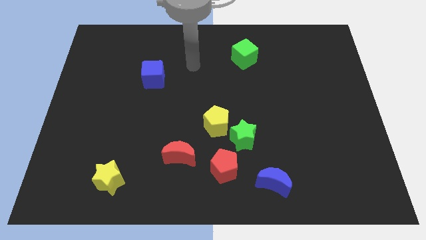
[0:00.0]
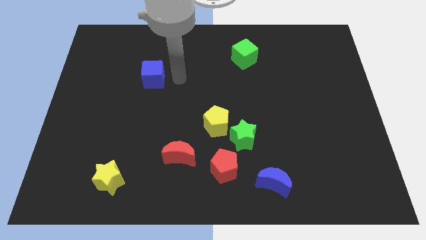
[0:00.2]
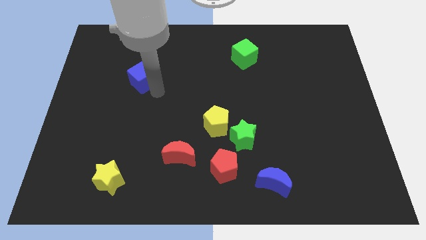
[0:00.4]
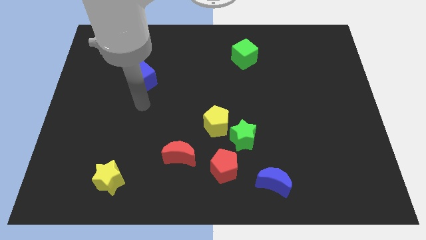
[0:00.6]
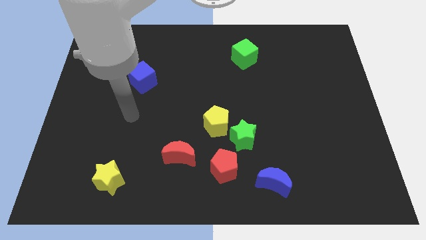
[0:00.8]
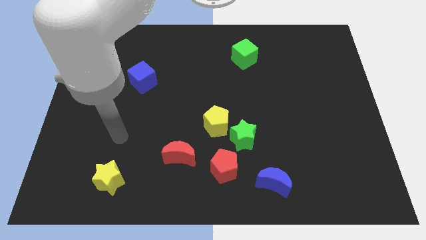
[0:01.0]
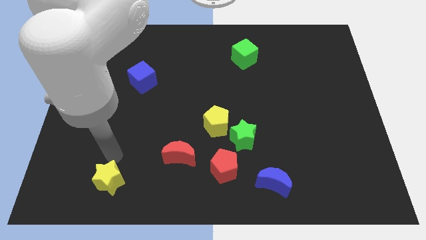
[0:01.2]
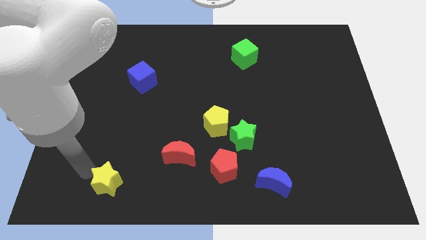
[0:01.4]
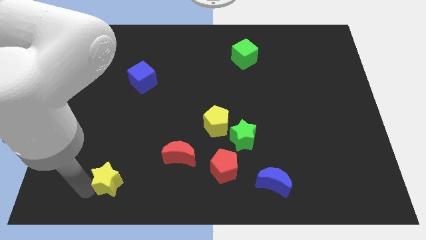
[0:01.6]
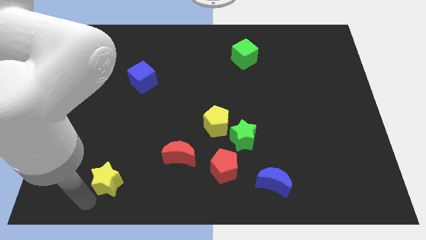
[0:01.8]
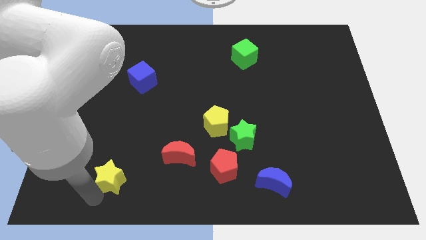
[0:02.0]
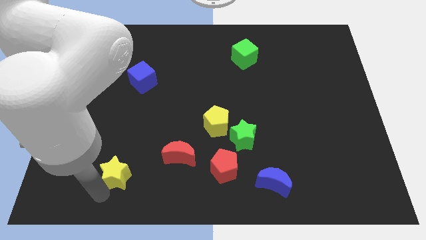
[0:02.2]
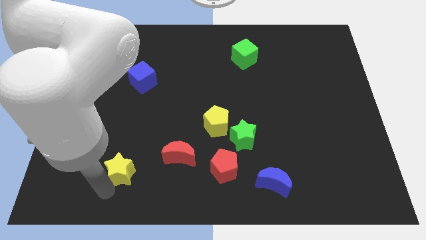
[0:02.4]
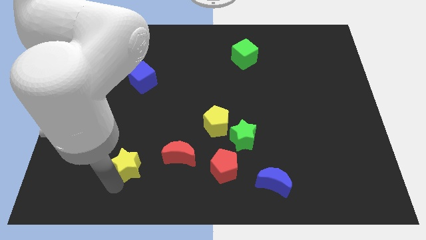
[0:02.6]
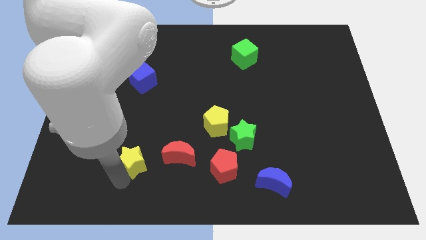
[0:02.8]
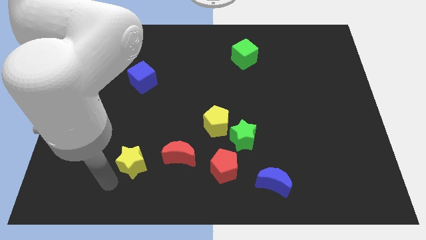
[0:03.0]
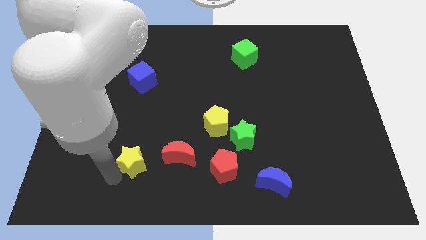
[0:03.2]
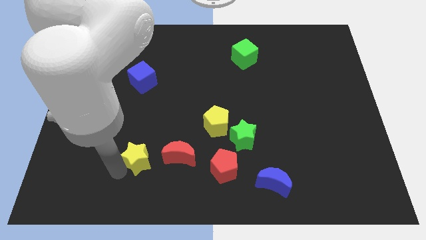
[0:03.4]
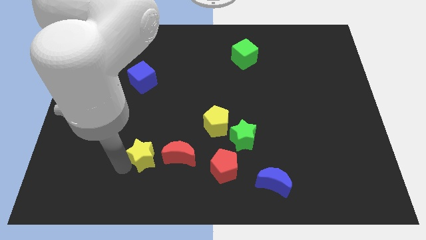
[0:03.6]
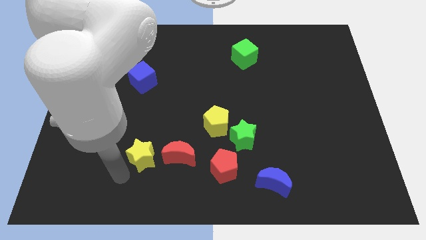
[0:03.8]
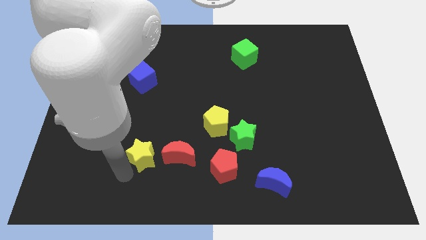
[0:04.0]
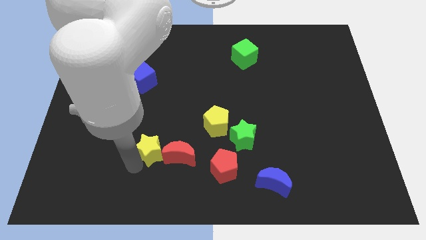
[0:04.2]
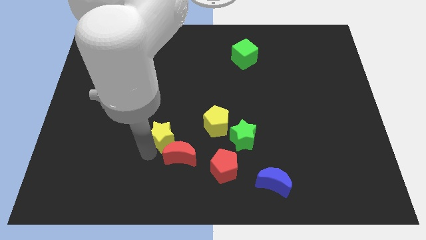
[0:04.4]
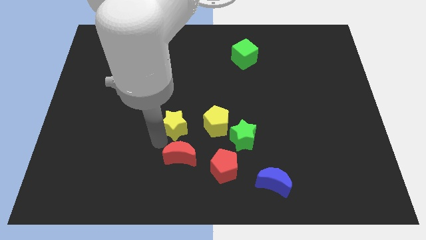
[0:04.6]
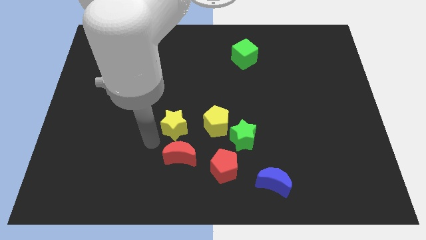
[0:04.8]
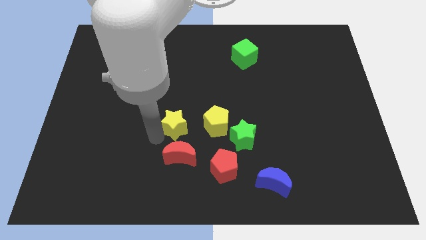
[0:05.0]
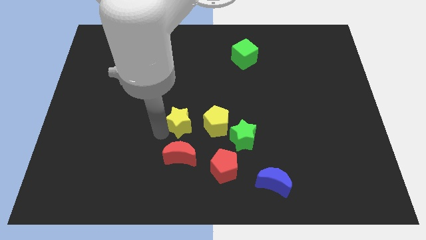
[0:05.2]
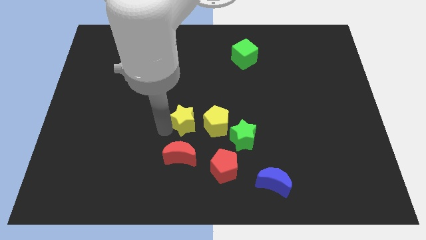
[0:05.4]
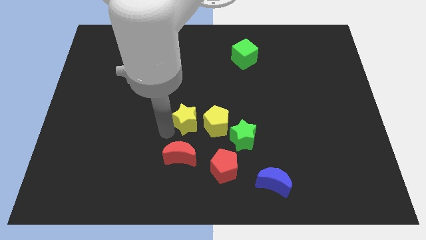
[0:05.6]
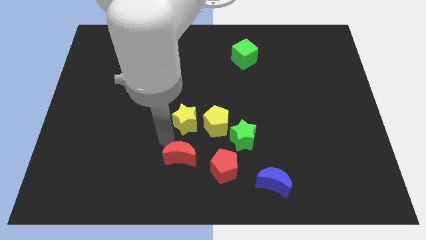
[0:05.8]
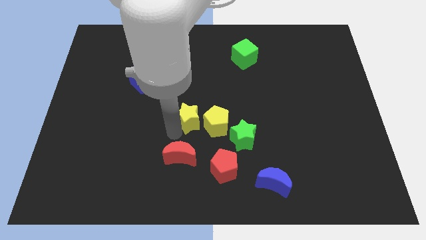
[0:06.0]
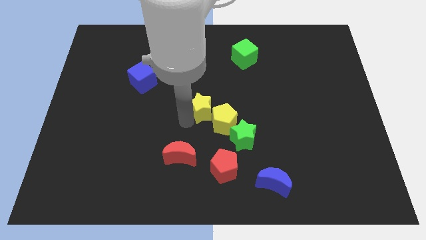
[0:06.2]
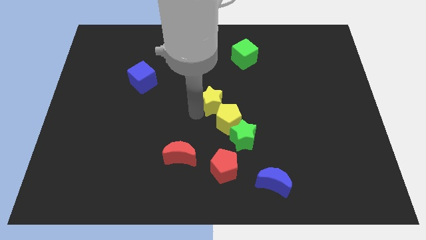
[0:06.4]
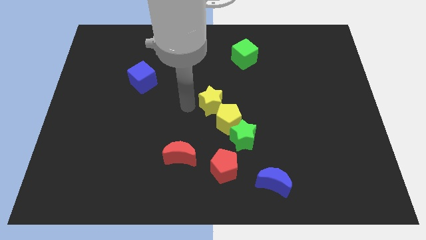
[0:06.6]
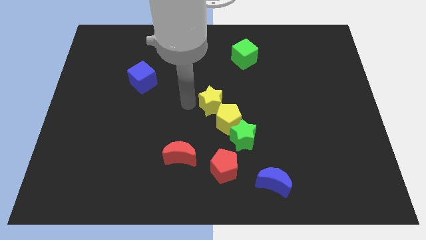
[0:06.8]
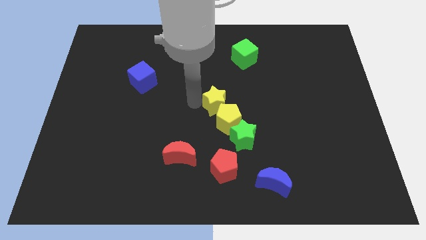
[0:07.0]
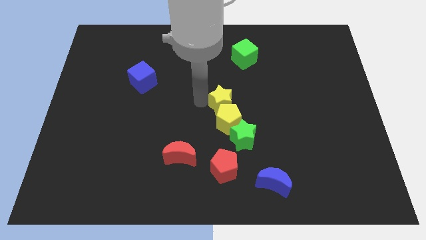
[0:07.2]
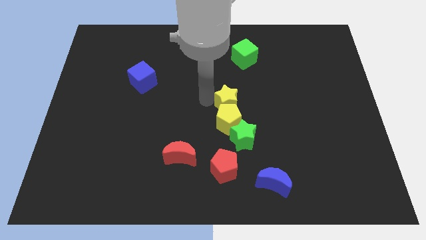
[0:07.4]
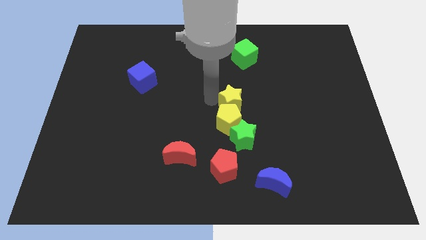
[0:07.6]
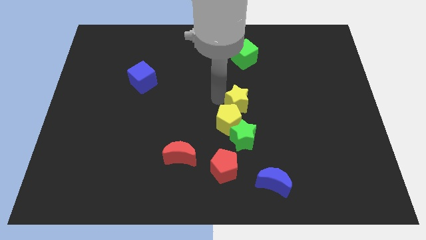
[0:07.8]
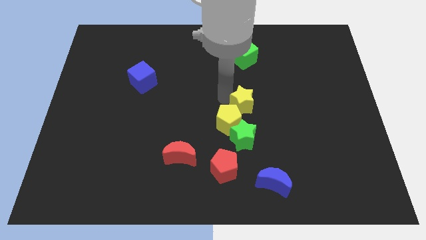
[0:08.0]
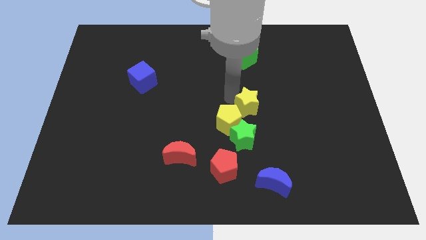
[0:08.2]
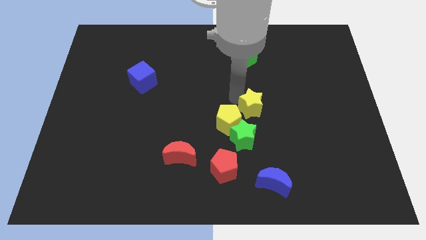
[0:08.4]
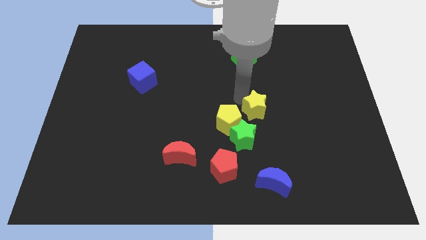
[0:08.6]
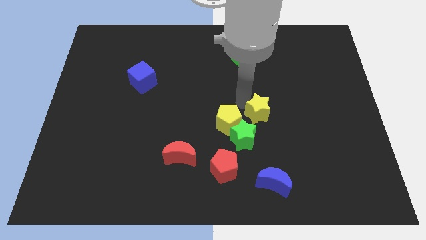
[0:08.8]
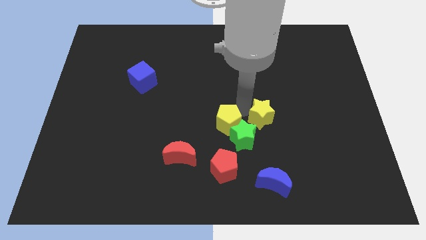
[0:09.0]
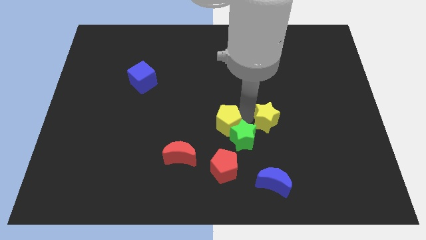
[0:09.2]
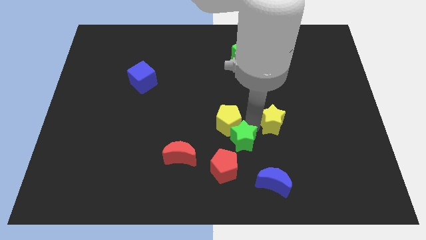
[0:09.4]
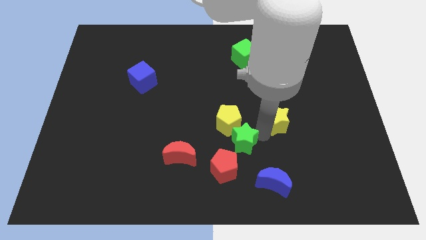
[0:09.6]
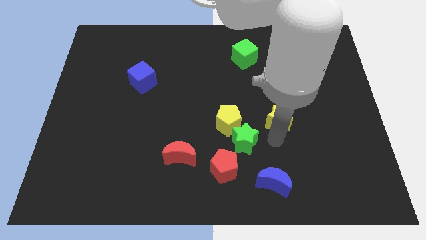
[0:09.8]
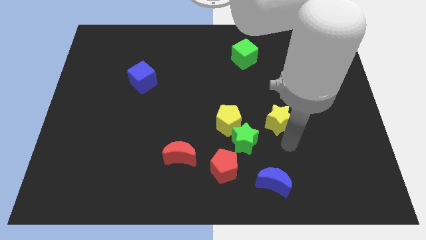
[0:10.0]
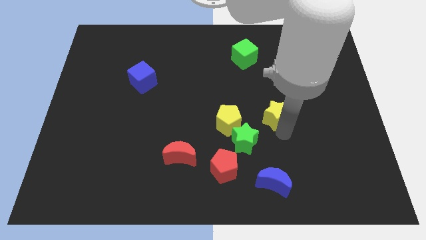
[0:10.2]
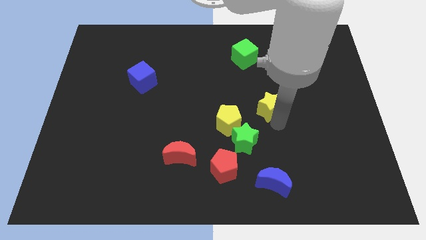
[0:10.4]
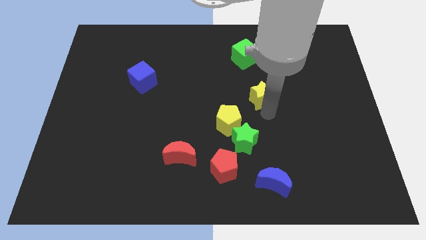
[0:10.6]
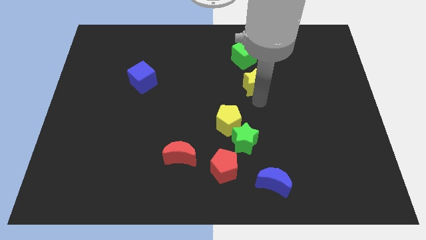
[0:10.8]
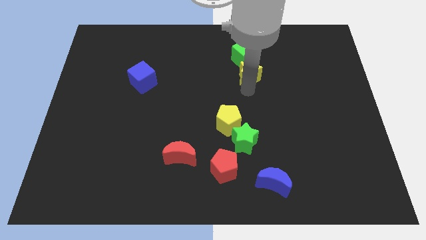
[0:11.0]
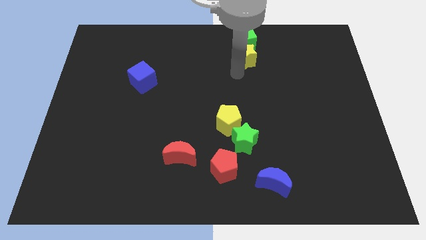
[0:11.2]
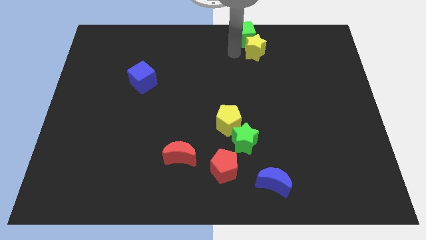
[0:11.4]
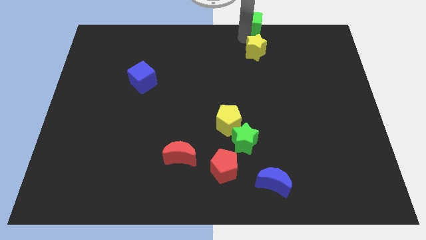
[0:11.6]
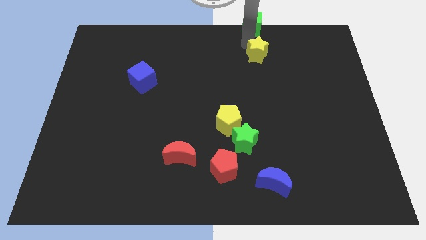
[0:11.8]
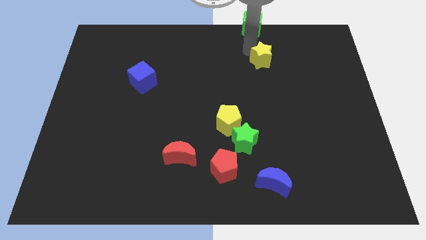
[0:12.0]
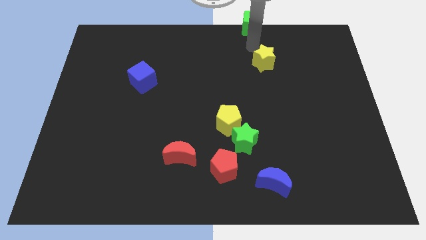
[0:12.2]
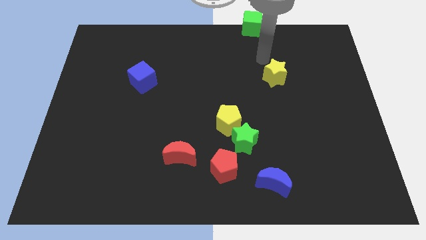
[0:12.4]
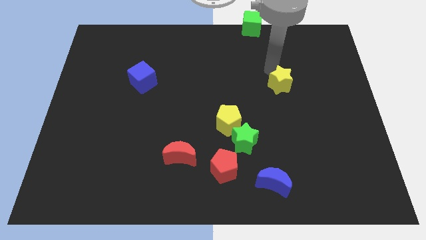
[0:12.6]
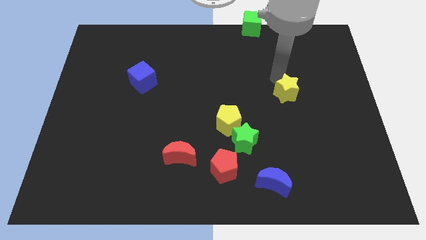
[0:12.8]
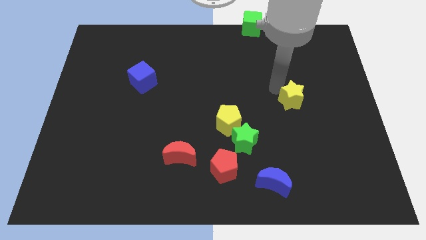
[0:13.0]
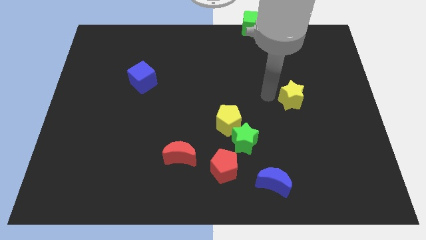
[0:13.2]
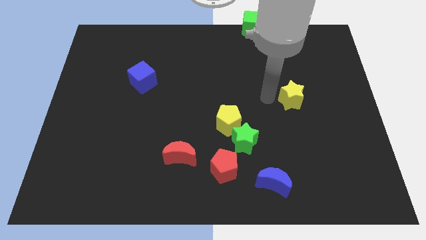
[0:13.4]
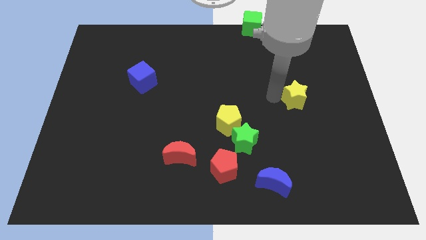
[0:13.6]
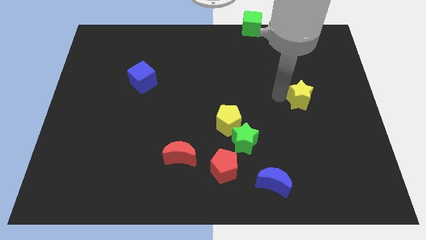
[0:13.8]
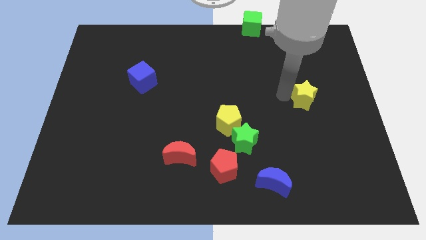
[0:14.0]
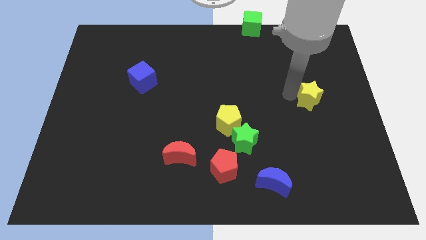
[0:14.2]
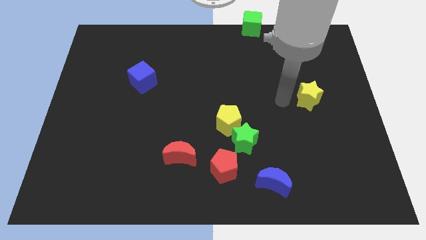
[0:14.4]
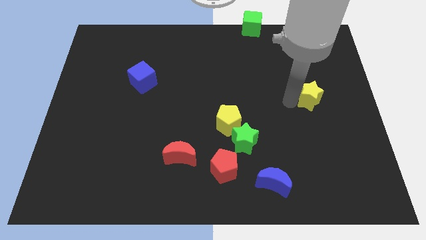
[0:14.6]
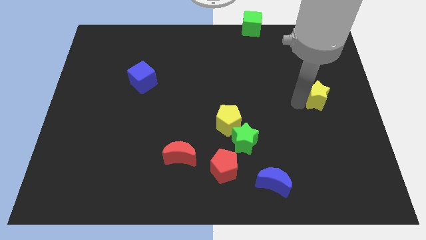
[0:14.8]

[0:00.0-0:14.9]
push the yellow star to the right side
